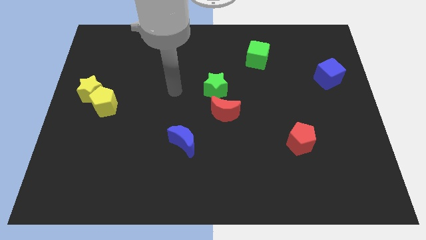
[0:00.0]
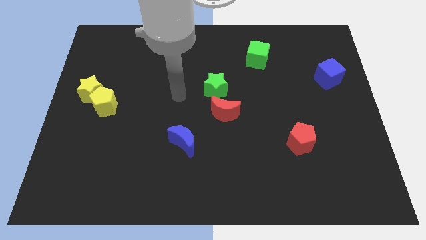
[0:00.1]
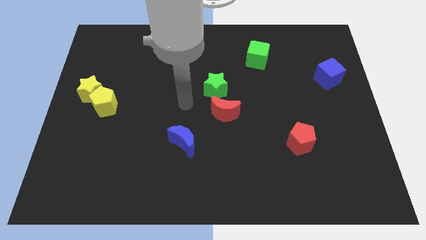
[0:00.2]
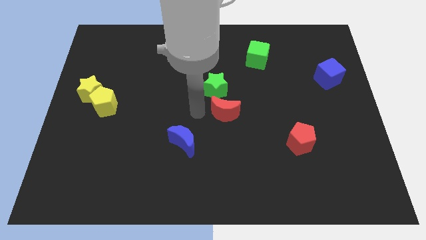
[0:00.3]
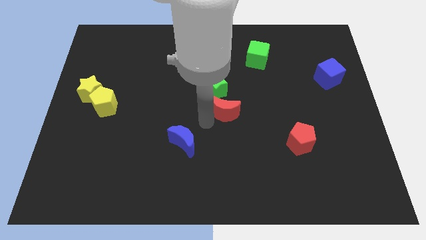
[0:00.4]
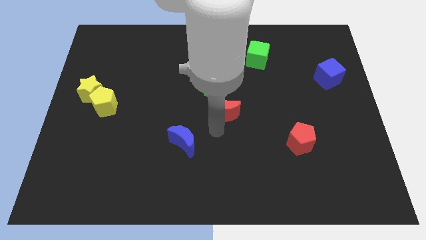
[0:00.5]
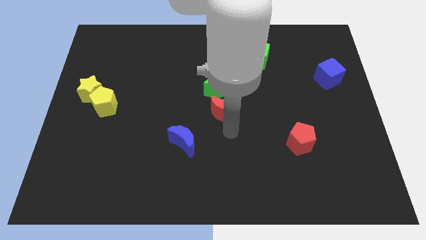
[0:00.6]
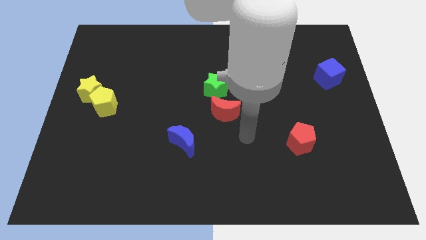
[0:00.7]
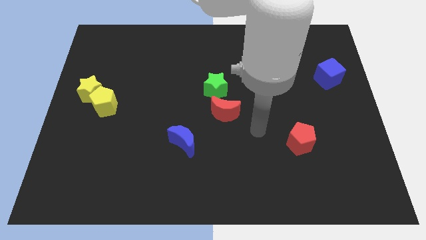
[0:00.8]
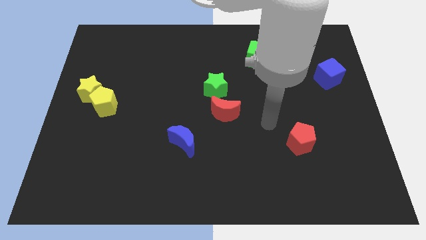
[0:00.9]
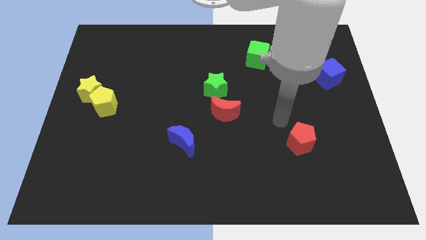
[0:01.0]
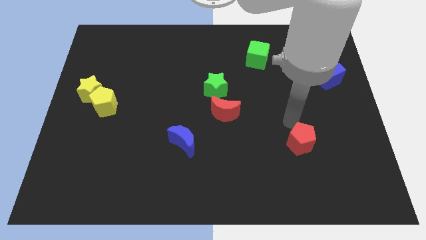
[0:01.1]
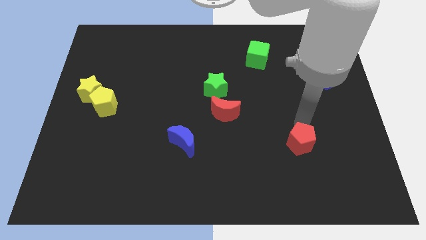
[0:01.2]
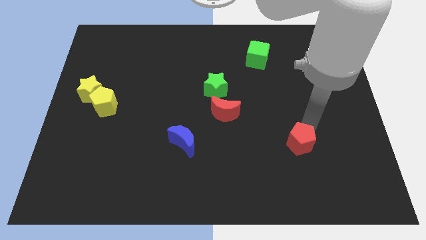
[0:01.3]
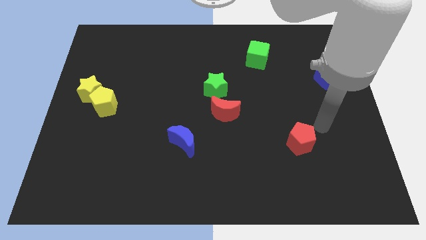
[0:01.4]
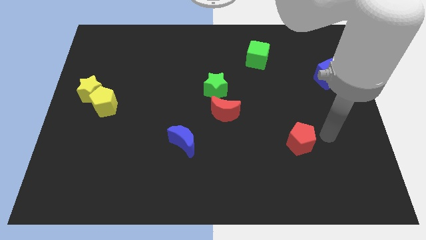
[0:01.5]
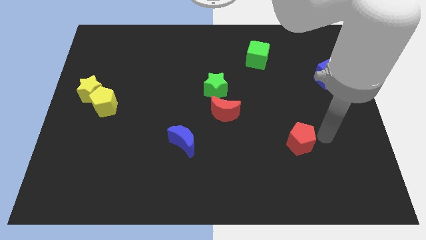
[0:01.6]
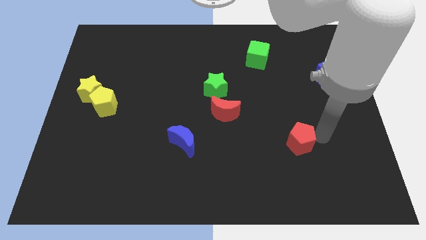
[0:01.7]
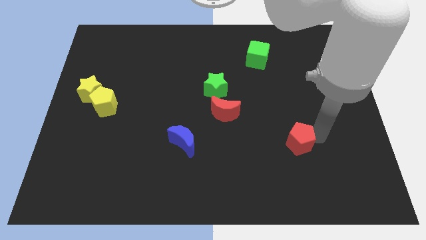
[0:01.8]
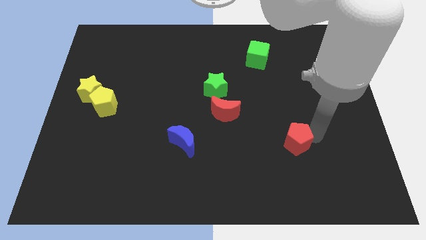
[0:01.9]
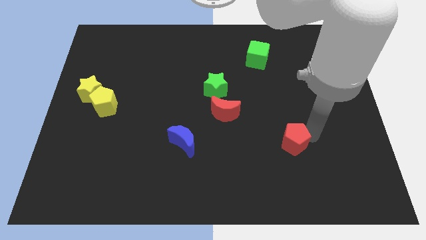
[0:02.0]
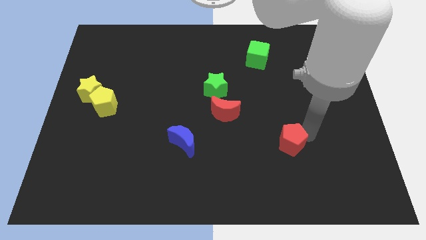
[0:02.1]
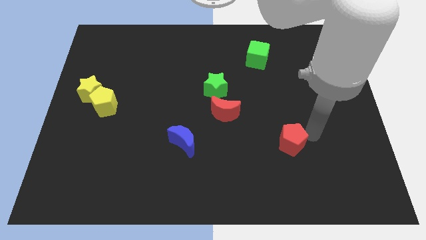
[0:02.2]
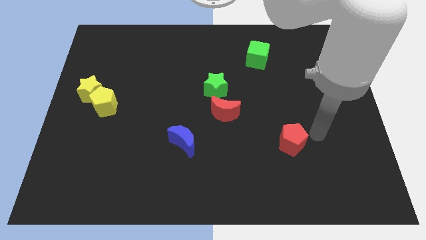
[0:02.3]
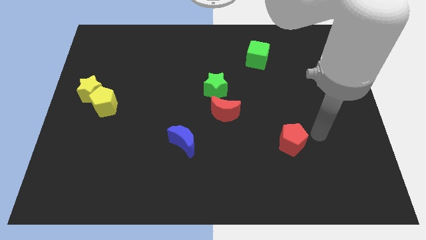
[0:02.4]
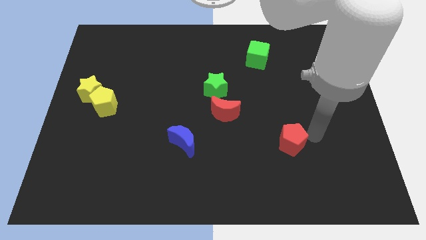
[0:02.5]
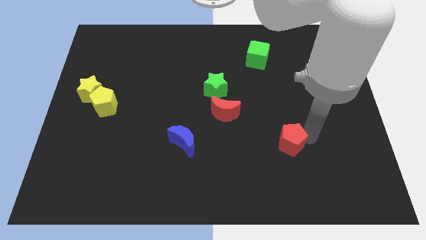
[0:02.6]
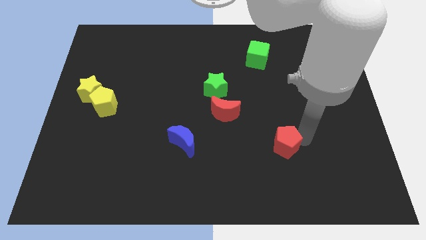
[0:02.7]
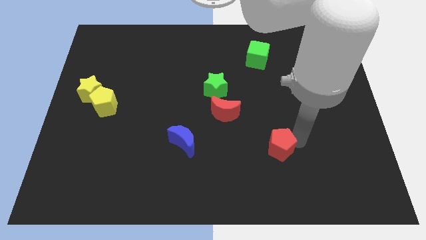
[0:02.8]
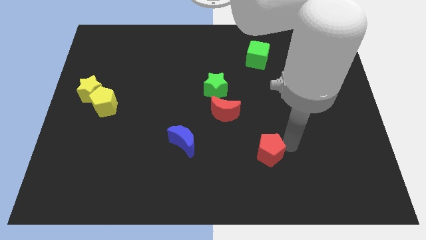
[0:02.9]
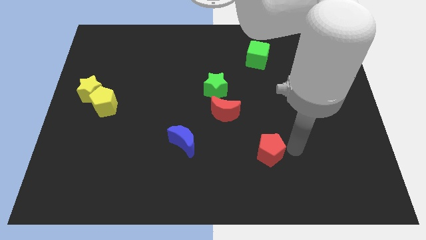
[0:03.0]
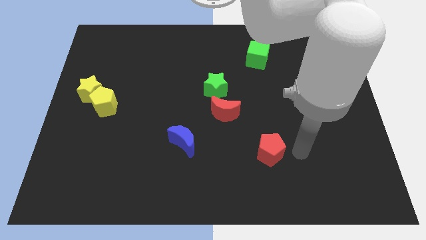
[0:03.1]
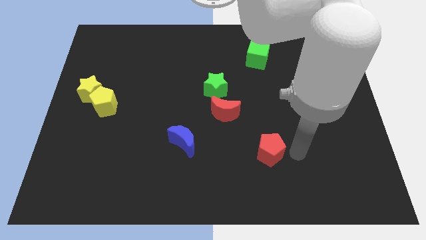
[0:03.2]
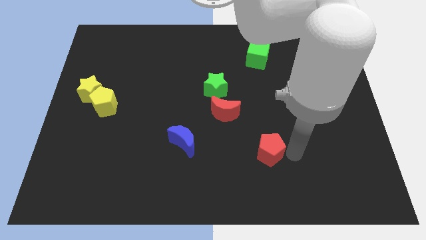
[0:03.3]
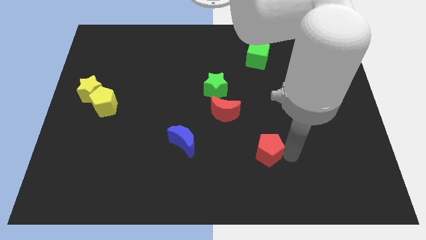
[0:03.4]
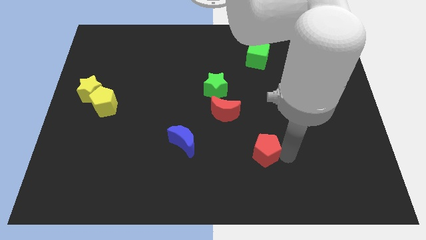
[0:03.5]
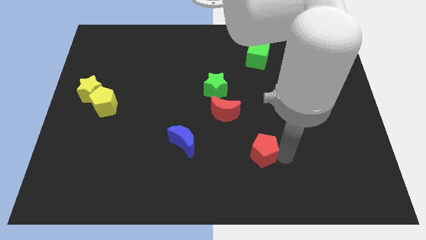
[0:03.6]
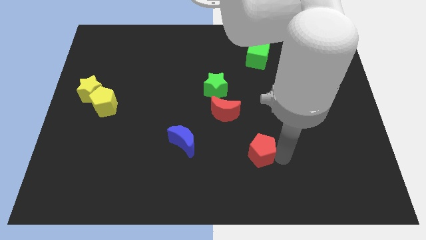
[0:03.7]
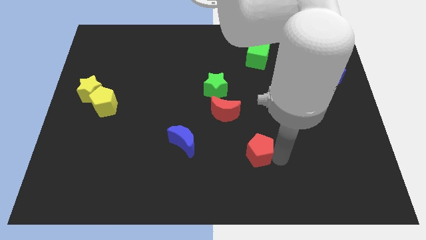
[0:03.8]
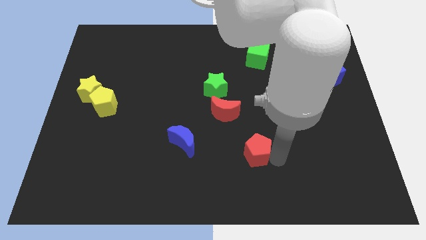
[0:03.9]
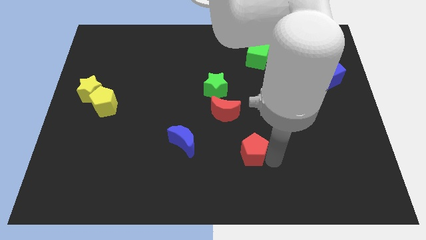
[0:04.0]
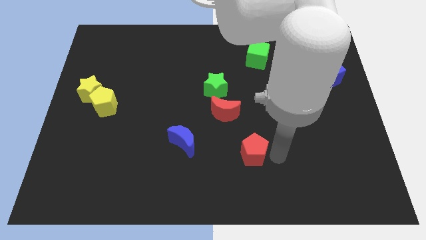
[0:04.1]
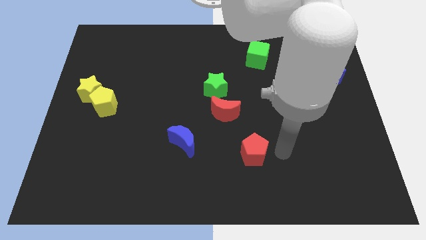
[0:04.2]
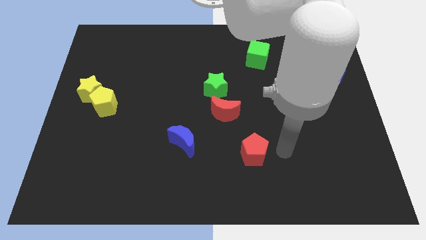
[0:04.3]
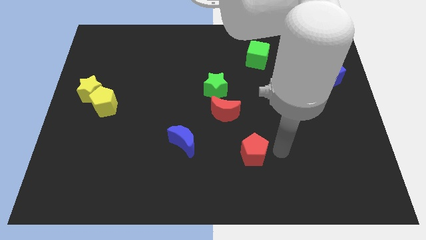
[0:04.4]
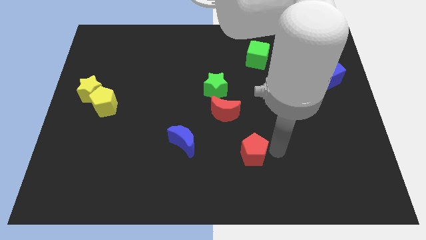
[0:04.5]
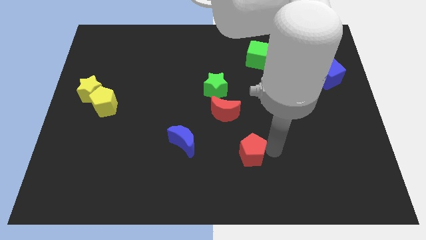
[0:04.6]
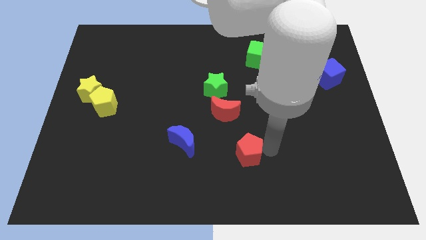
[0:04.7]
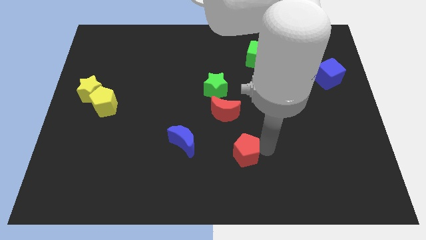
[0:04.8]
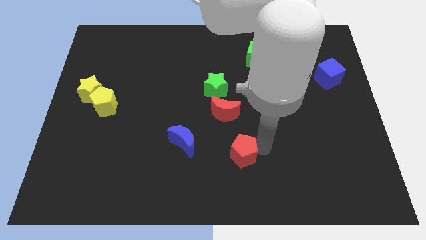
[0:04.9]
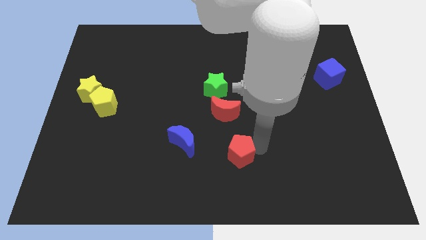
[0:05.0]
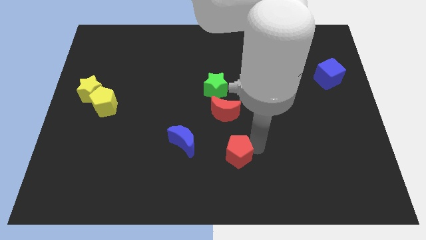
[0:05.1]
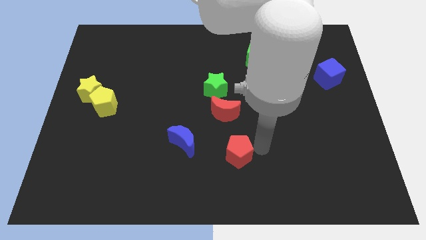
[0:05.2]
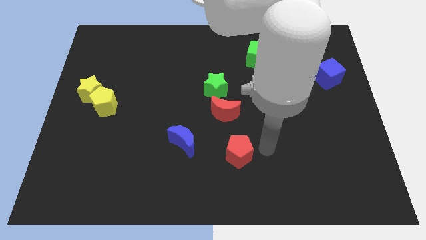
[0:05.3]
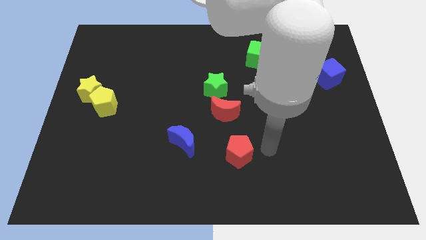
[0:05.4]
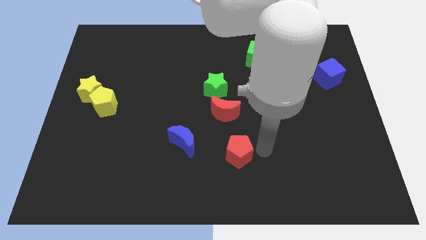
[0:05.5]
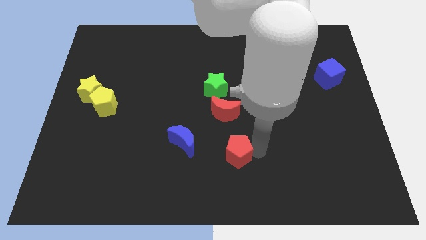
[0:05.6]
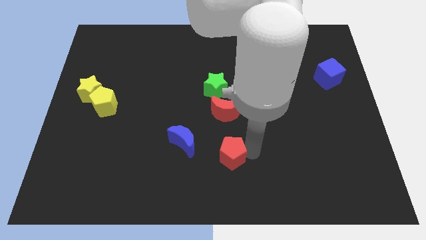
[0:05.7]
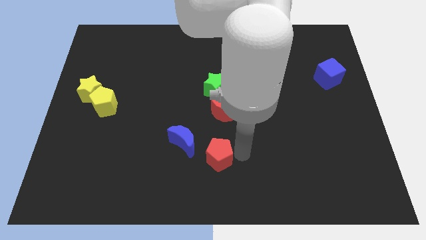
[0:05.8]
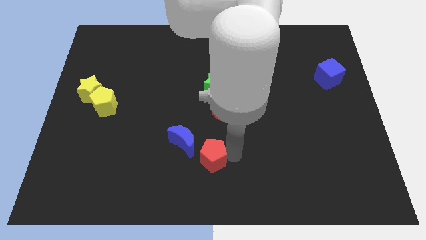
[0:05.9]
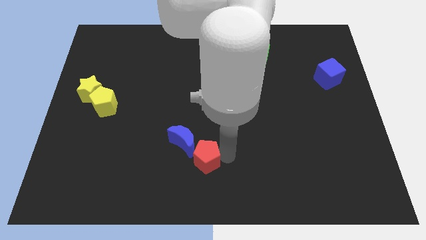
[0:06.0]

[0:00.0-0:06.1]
slide the red pentagon left

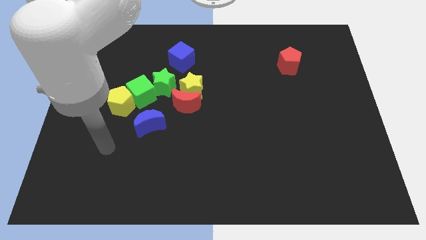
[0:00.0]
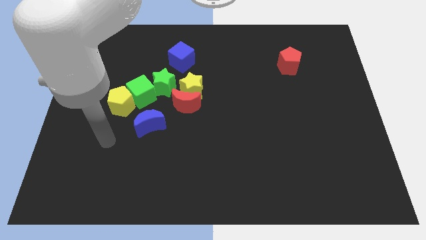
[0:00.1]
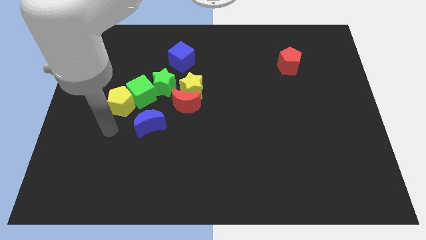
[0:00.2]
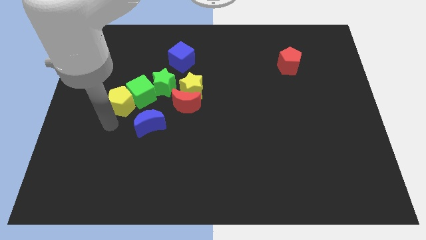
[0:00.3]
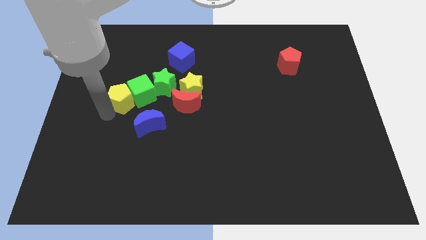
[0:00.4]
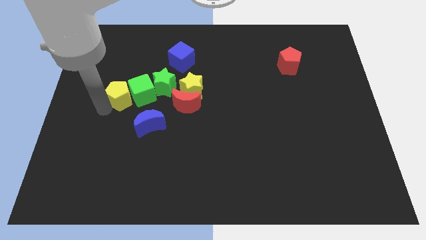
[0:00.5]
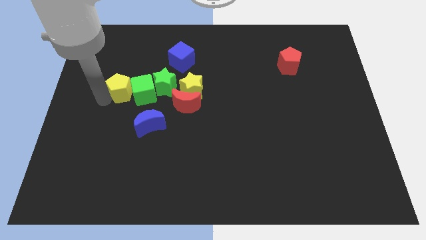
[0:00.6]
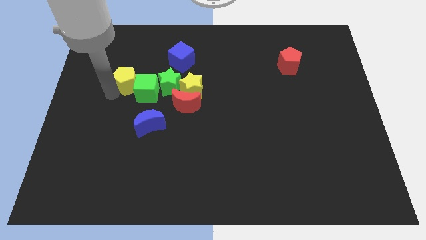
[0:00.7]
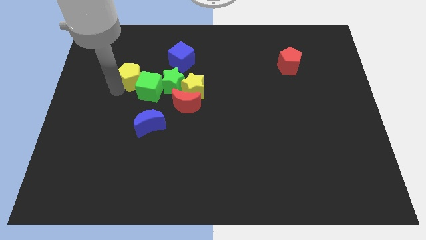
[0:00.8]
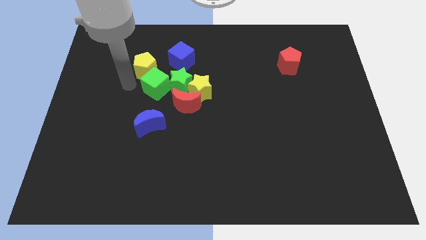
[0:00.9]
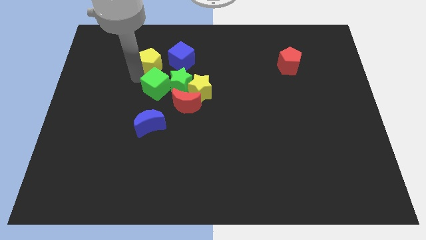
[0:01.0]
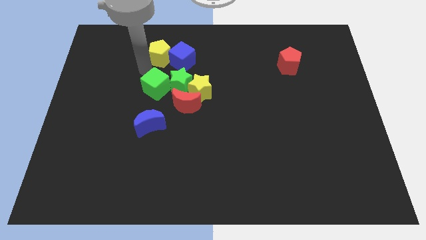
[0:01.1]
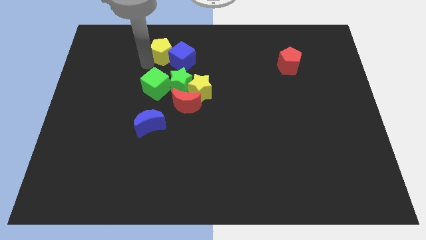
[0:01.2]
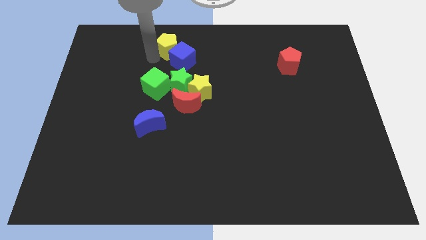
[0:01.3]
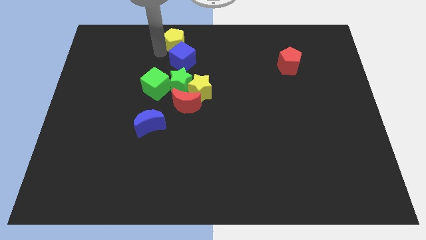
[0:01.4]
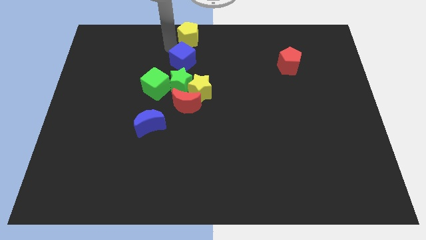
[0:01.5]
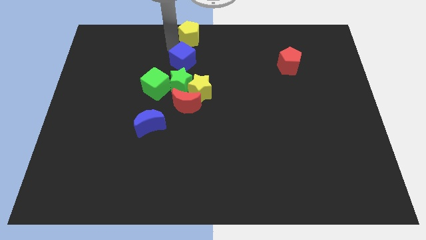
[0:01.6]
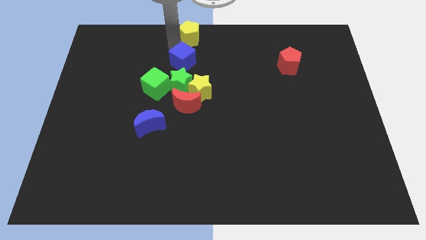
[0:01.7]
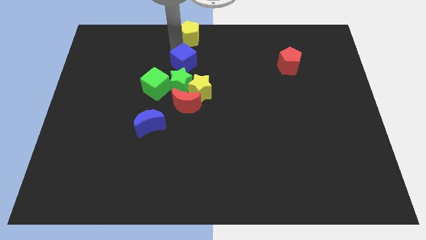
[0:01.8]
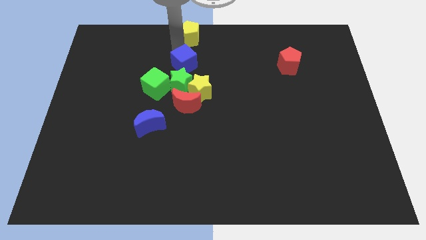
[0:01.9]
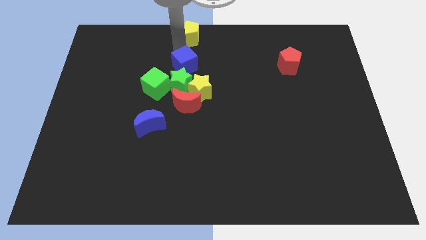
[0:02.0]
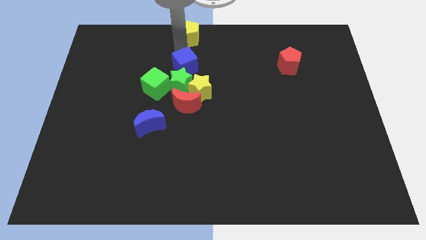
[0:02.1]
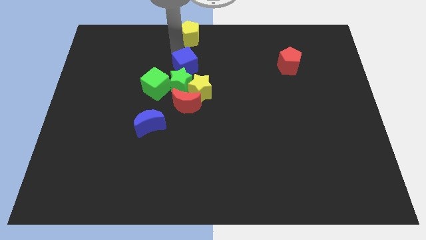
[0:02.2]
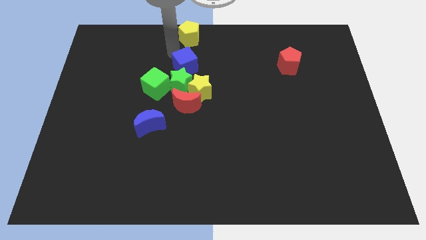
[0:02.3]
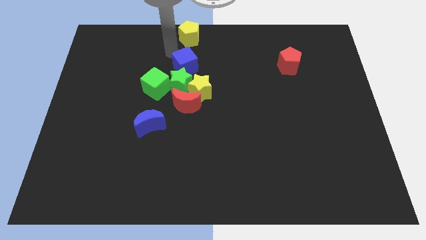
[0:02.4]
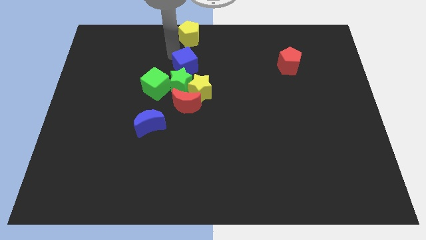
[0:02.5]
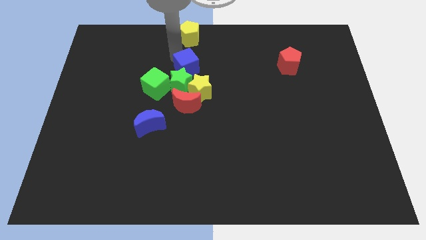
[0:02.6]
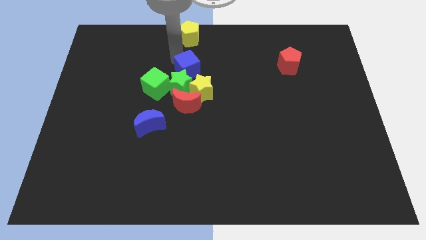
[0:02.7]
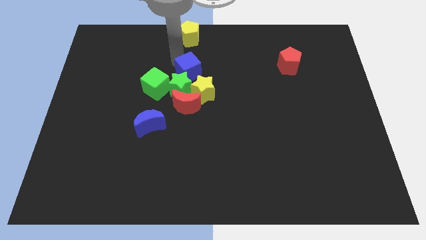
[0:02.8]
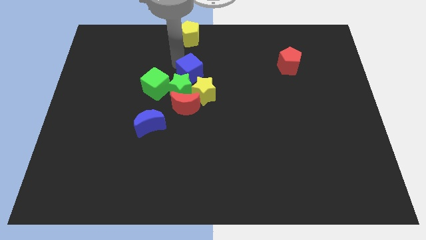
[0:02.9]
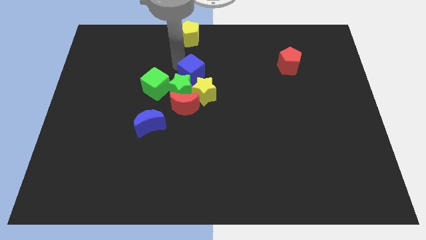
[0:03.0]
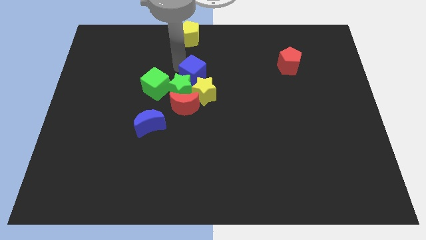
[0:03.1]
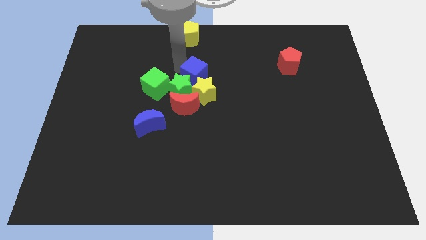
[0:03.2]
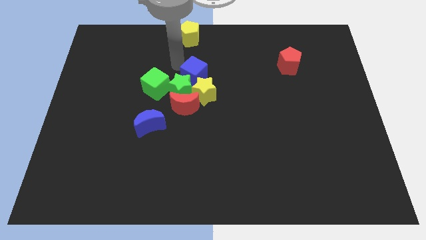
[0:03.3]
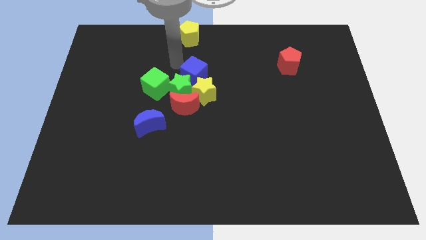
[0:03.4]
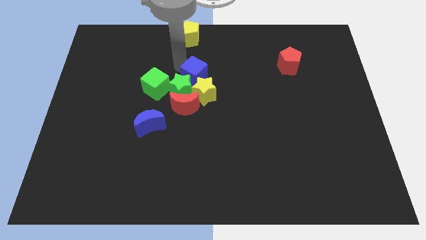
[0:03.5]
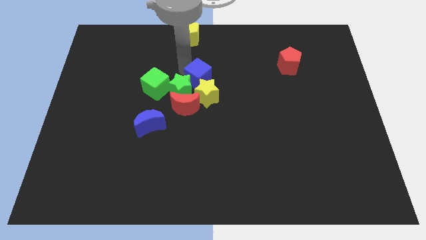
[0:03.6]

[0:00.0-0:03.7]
slightly slide the blue cube down and then right
